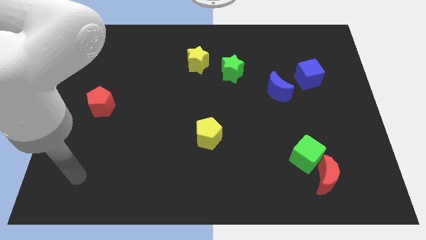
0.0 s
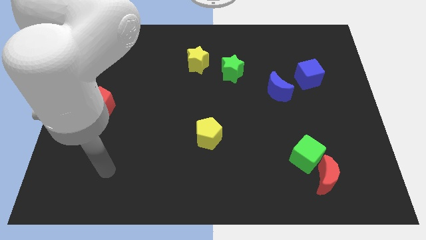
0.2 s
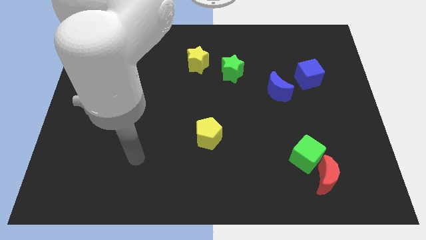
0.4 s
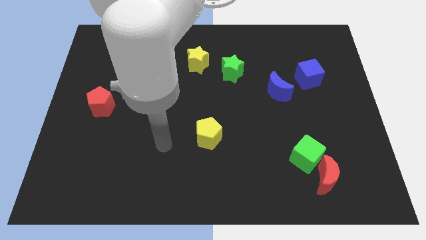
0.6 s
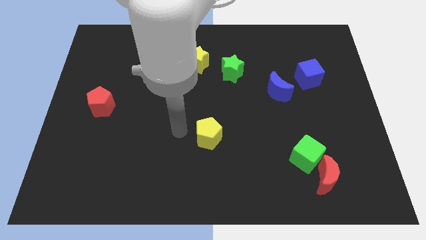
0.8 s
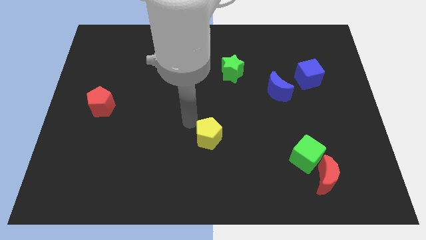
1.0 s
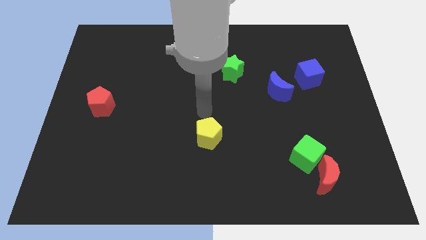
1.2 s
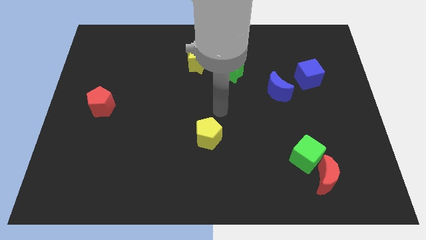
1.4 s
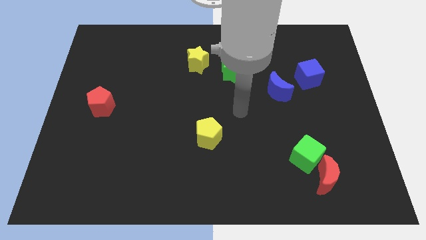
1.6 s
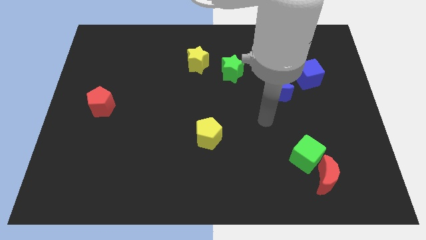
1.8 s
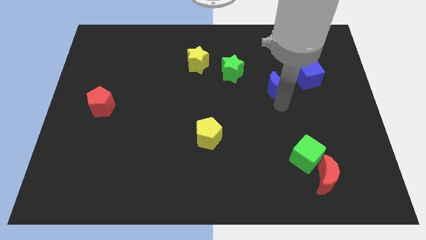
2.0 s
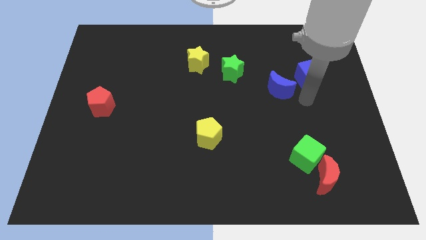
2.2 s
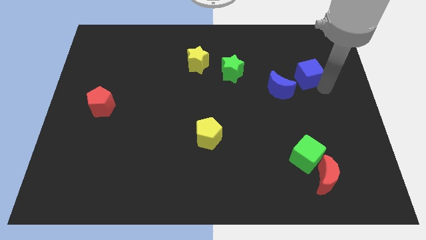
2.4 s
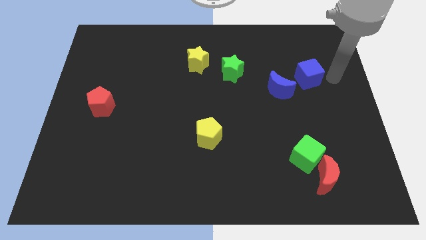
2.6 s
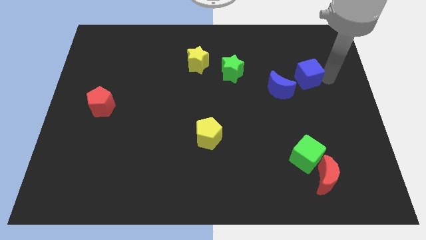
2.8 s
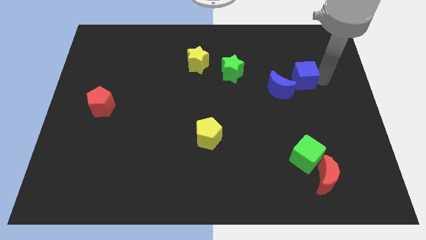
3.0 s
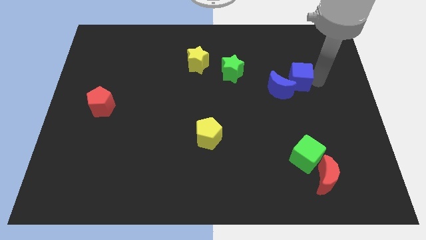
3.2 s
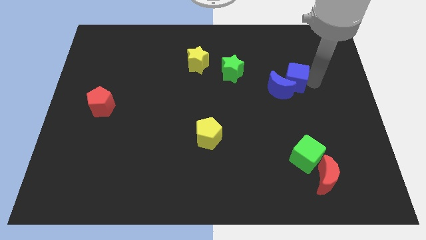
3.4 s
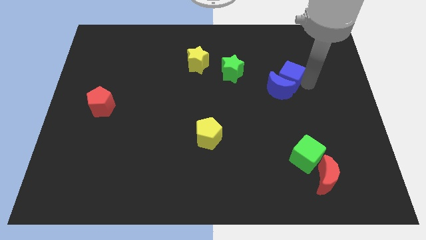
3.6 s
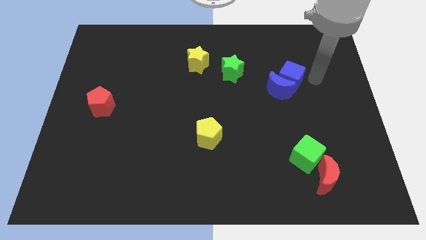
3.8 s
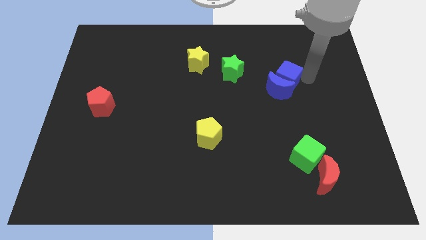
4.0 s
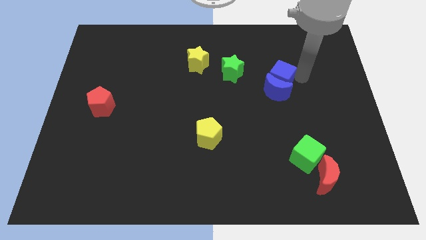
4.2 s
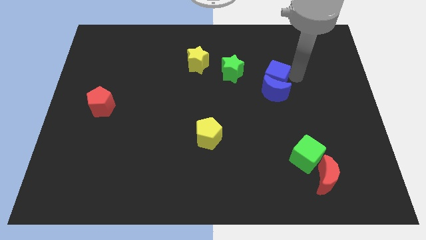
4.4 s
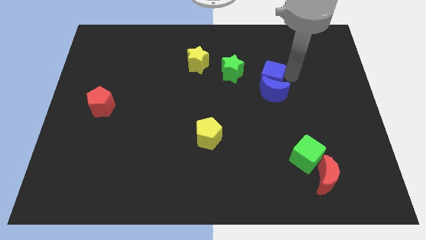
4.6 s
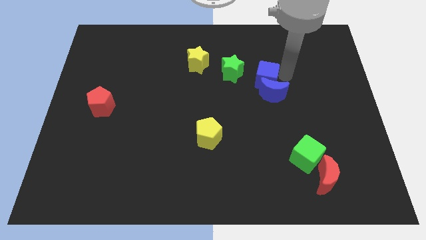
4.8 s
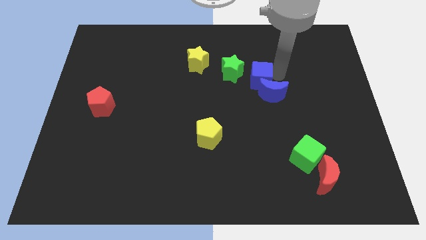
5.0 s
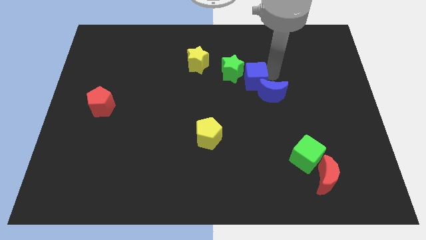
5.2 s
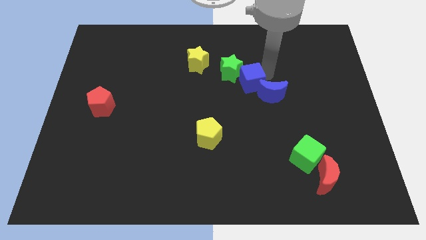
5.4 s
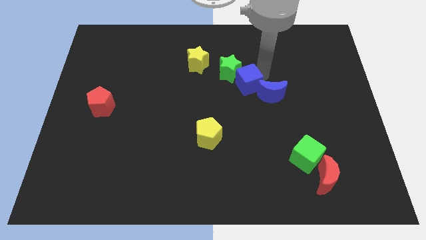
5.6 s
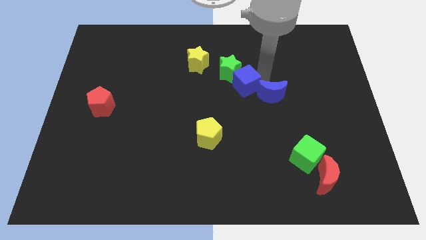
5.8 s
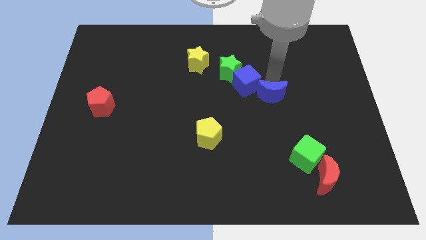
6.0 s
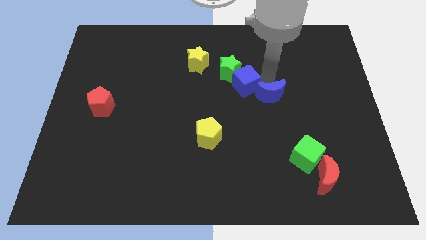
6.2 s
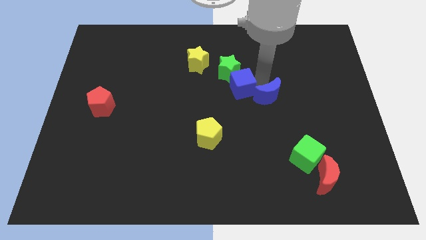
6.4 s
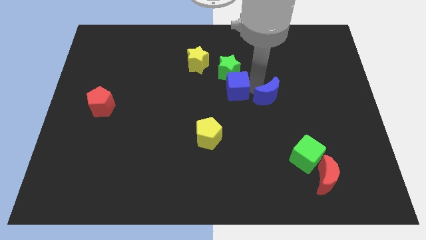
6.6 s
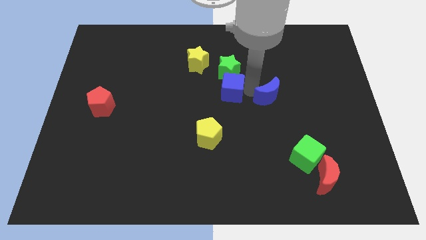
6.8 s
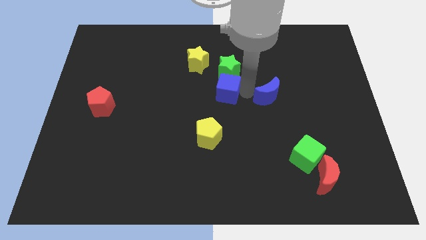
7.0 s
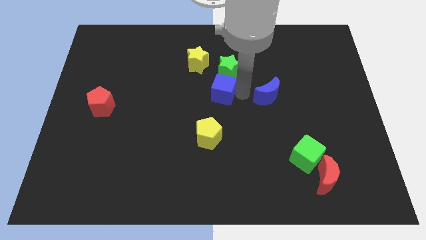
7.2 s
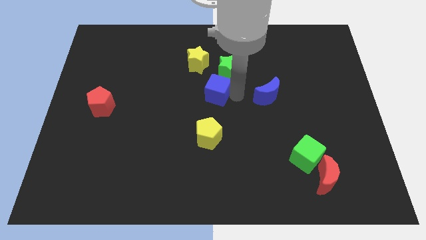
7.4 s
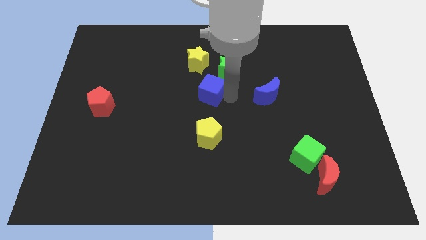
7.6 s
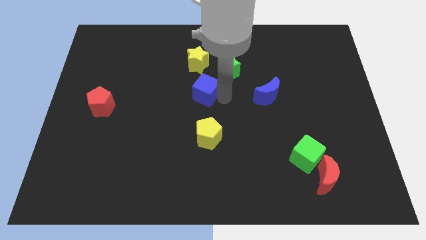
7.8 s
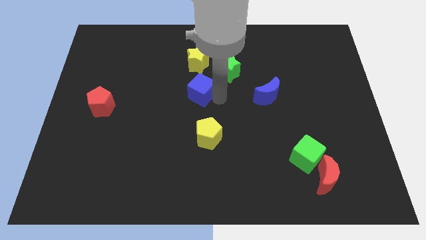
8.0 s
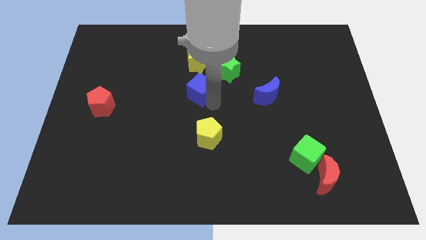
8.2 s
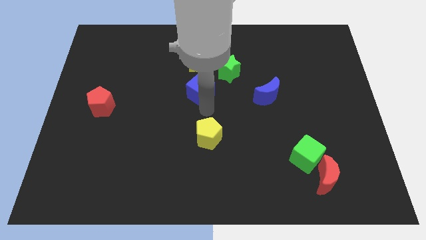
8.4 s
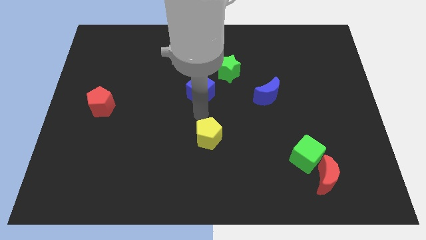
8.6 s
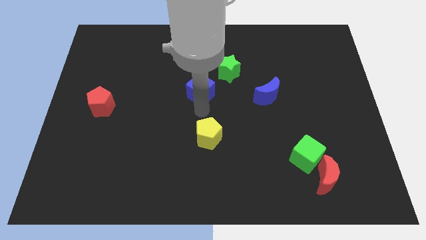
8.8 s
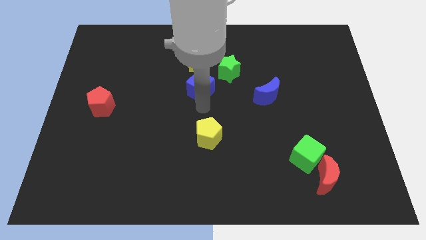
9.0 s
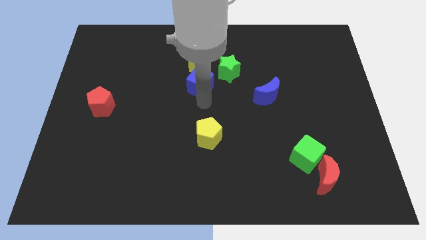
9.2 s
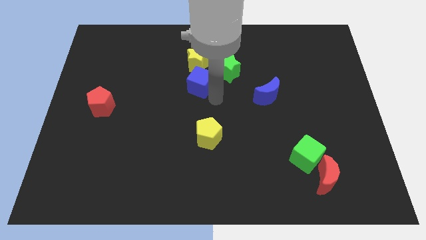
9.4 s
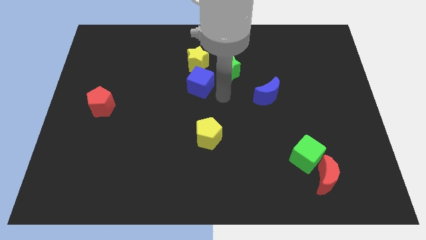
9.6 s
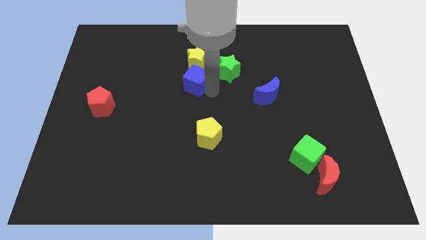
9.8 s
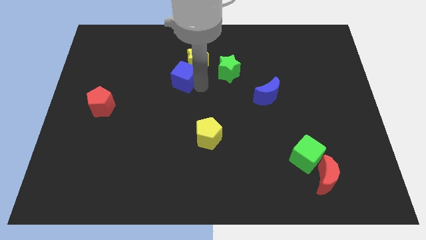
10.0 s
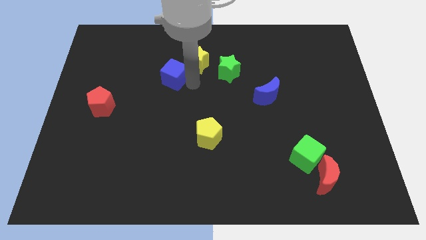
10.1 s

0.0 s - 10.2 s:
move the blue cube to the left side of the yellow star

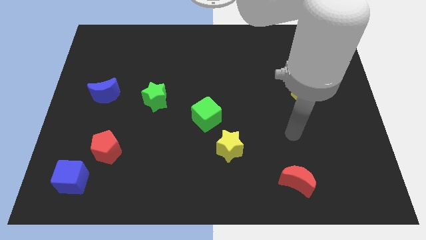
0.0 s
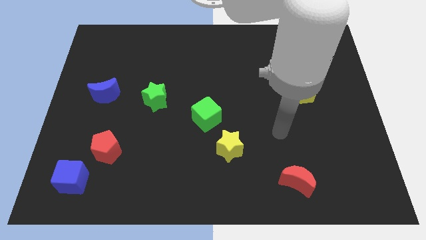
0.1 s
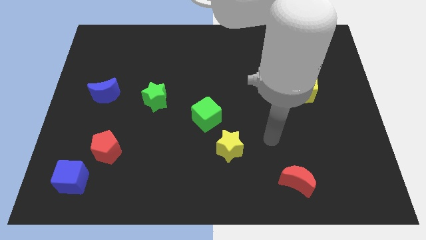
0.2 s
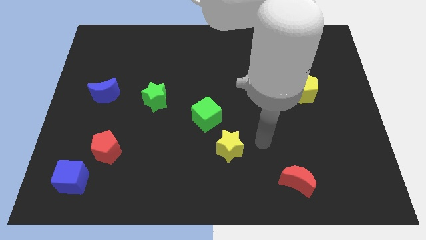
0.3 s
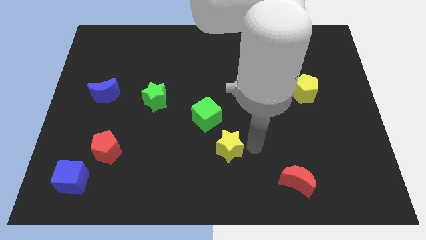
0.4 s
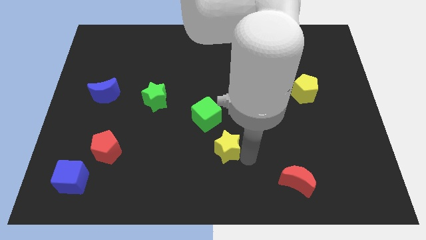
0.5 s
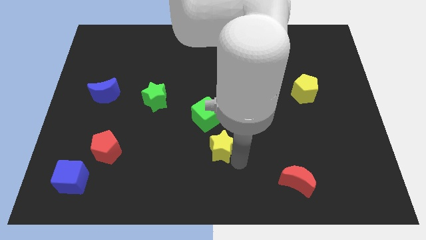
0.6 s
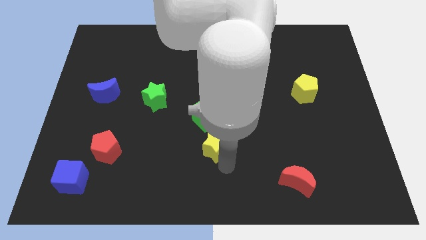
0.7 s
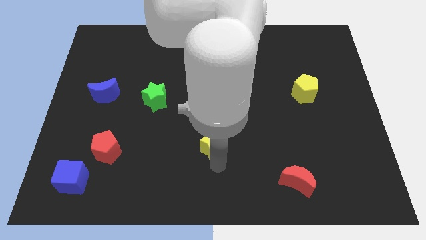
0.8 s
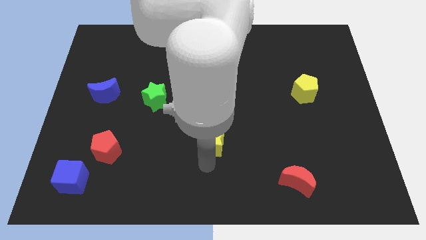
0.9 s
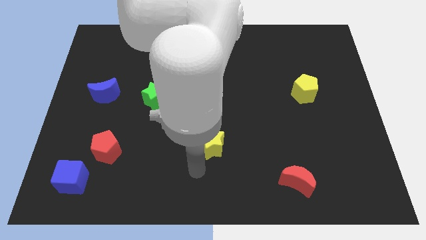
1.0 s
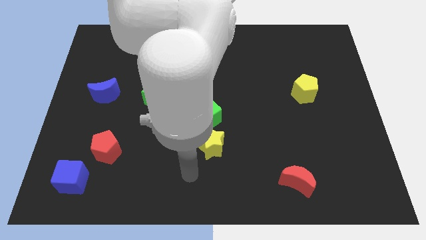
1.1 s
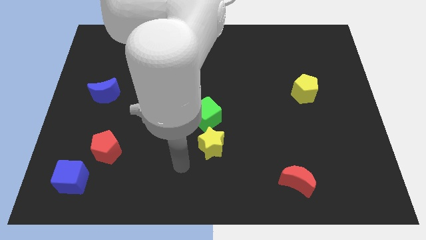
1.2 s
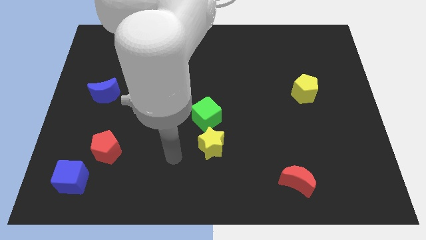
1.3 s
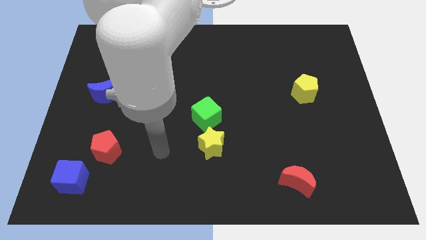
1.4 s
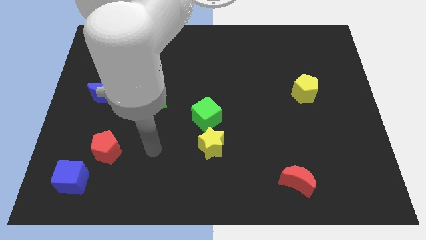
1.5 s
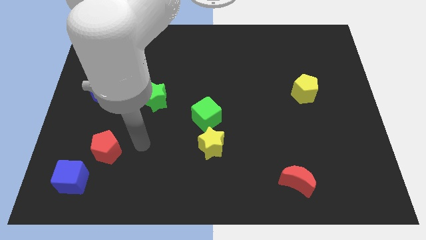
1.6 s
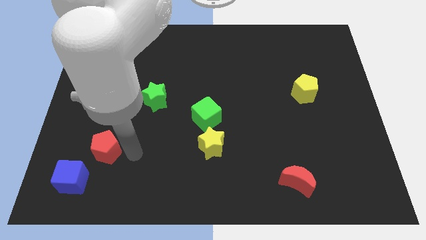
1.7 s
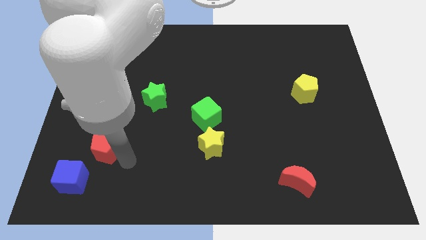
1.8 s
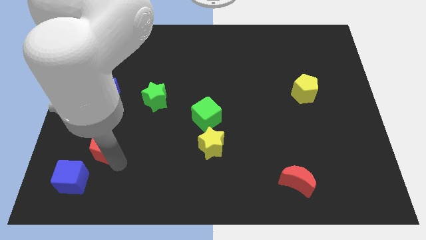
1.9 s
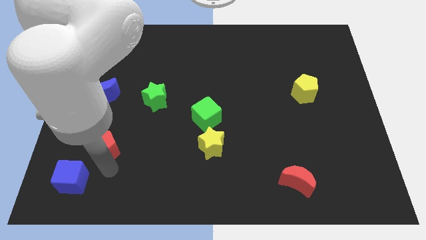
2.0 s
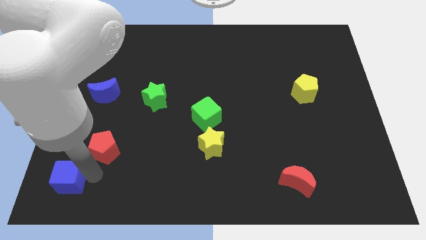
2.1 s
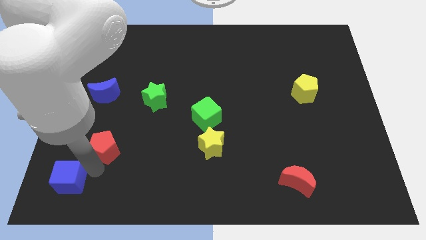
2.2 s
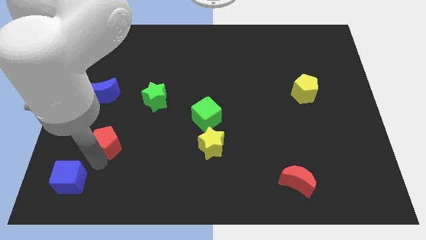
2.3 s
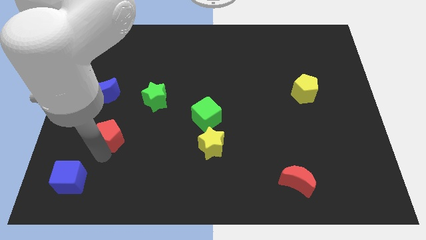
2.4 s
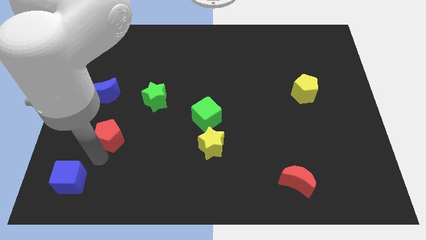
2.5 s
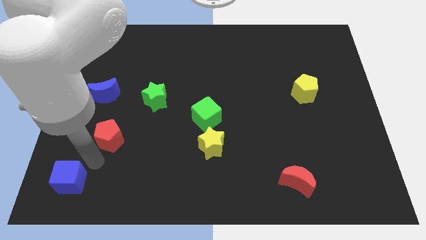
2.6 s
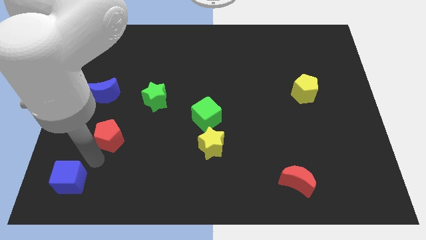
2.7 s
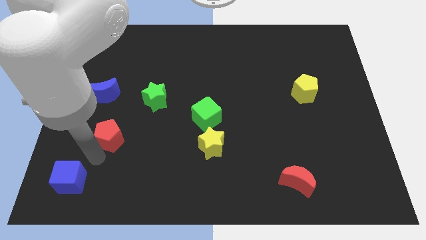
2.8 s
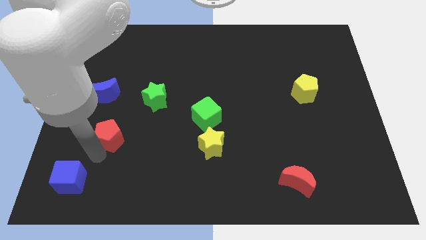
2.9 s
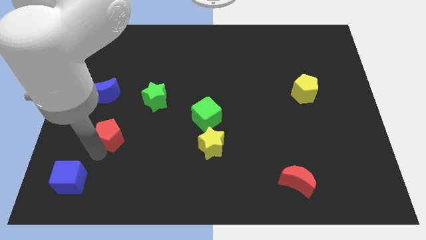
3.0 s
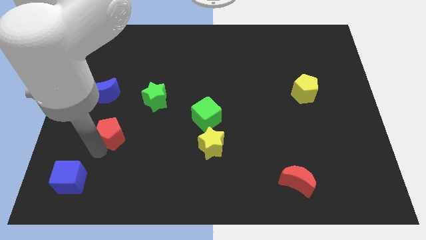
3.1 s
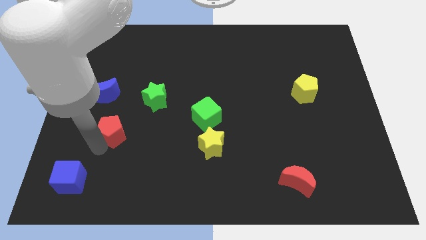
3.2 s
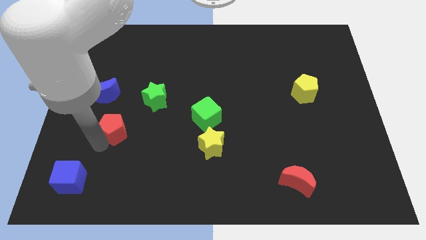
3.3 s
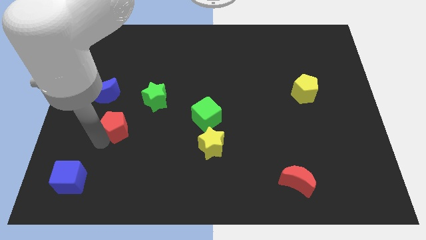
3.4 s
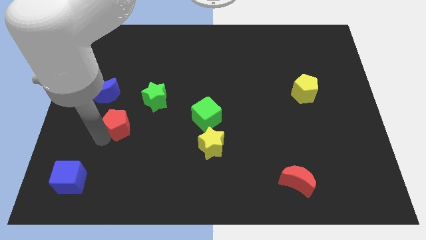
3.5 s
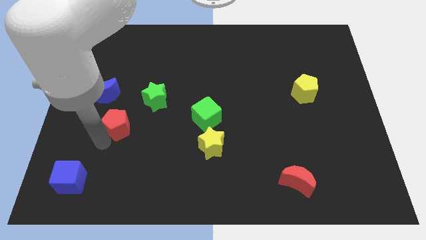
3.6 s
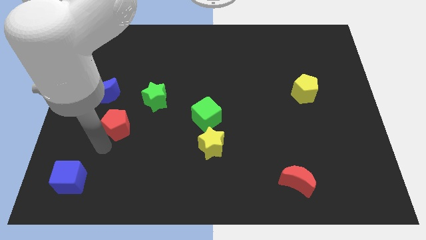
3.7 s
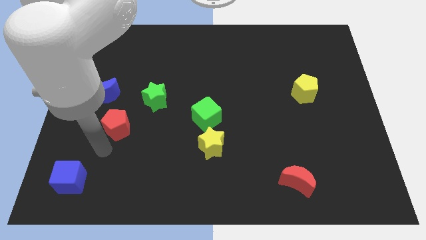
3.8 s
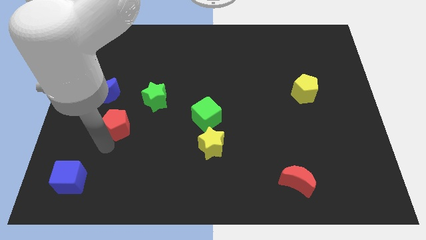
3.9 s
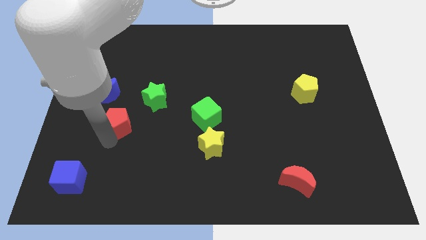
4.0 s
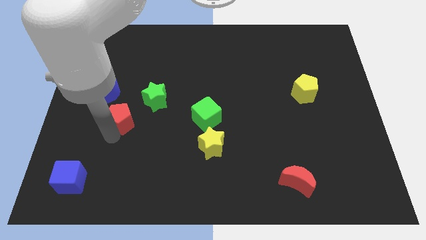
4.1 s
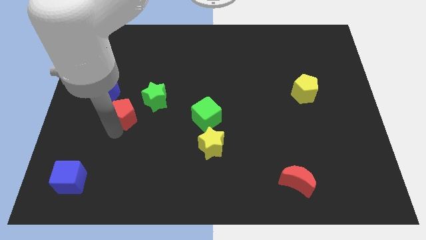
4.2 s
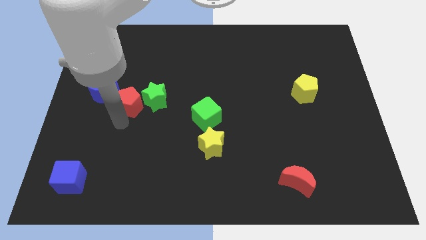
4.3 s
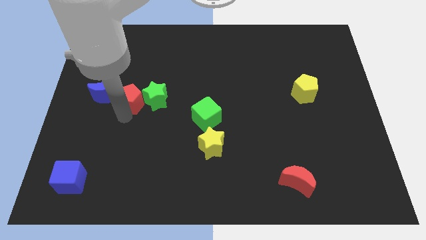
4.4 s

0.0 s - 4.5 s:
slide the red pentagon diagonally up and to the left of the green star
